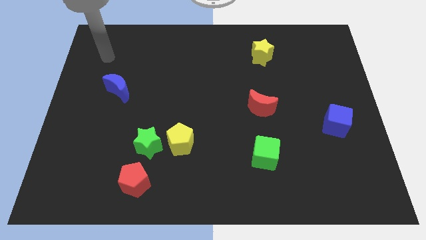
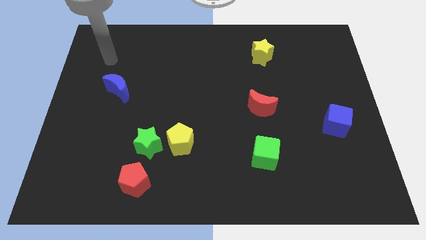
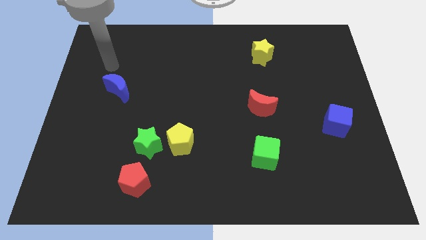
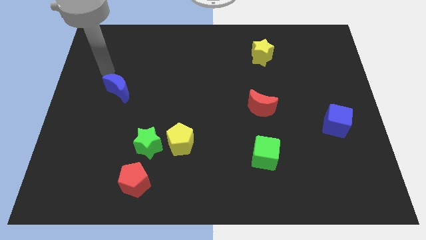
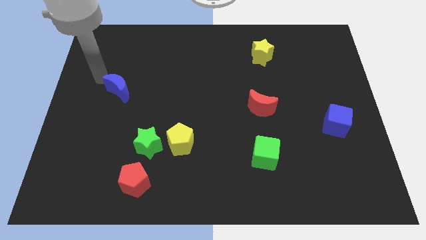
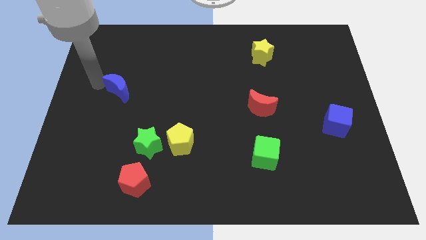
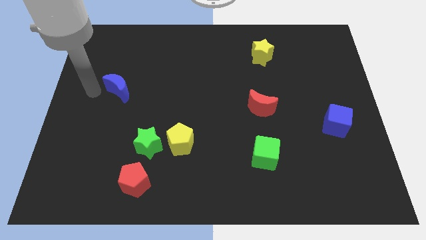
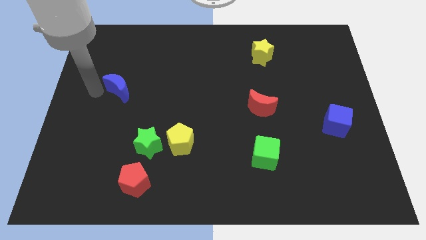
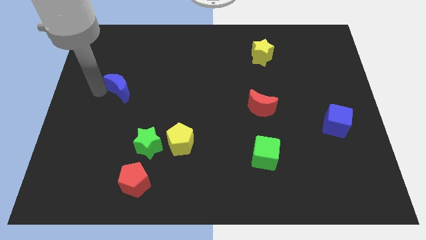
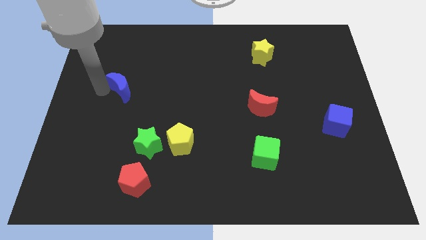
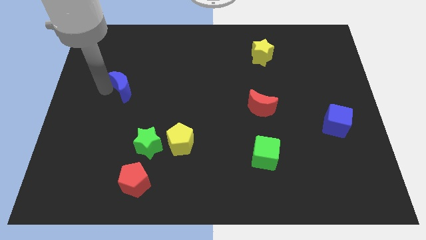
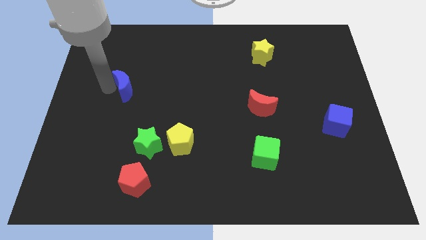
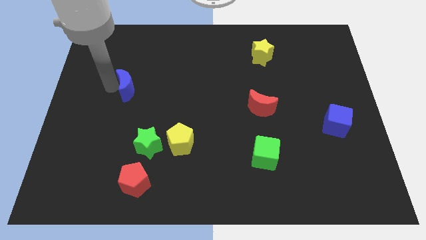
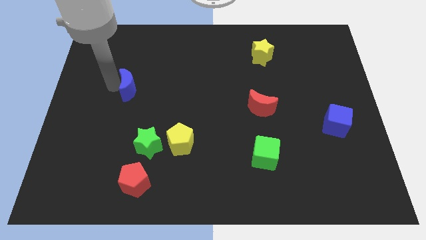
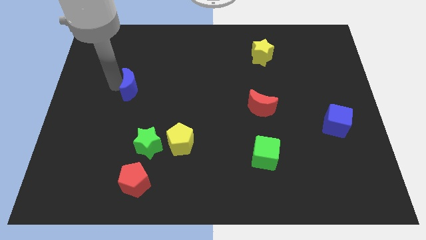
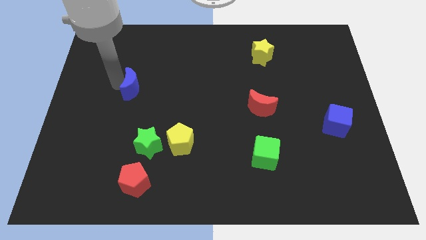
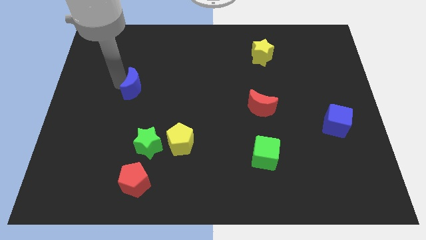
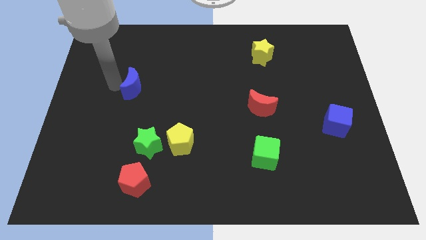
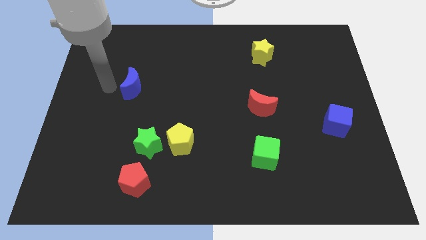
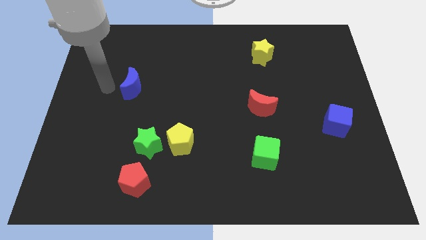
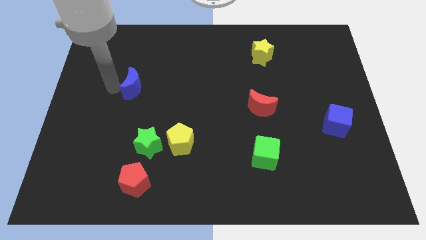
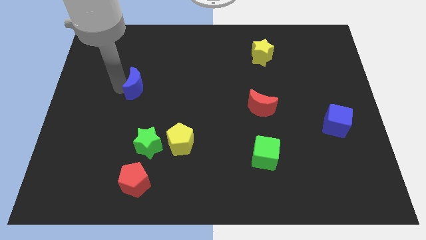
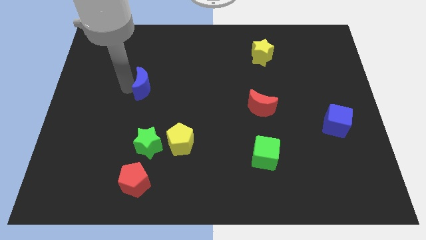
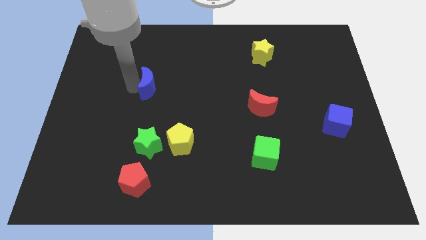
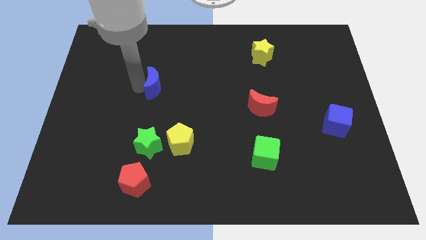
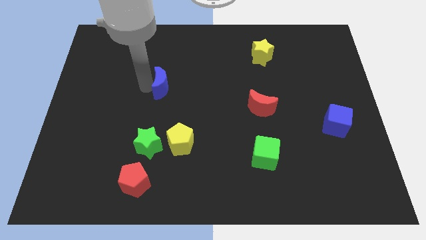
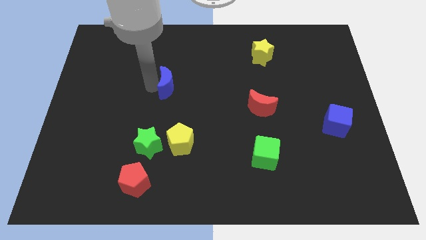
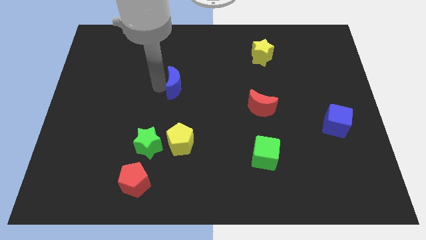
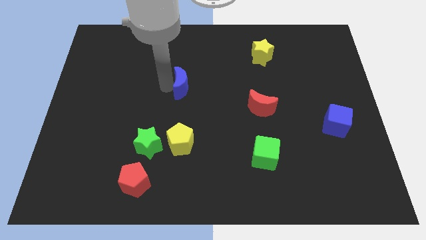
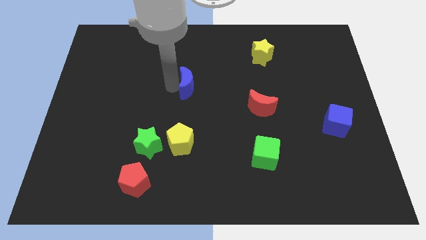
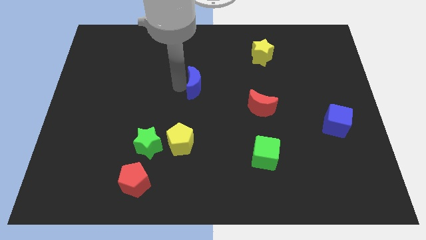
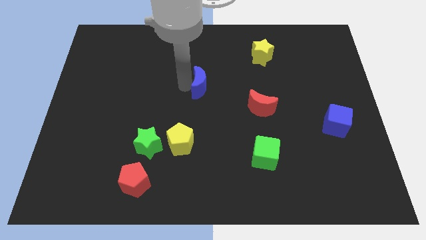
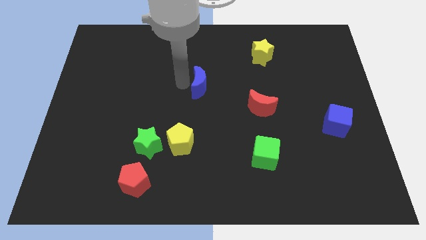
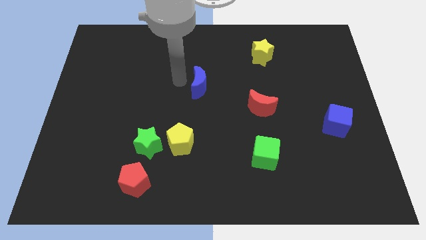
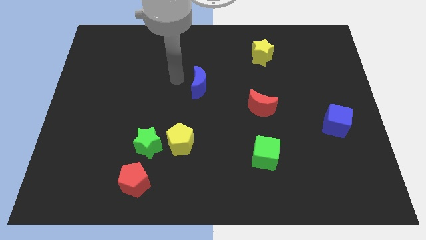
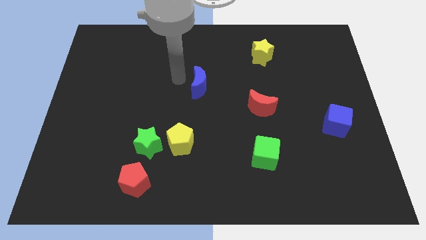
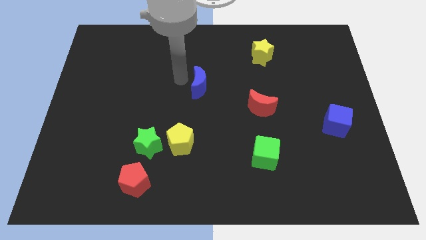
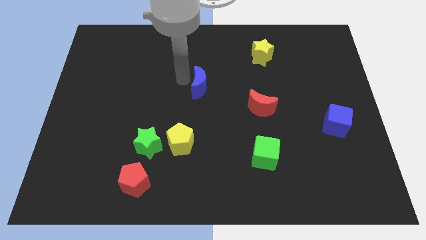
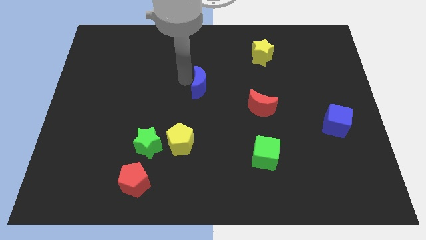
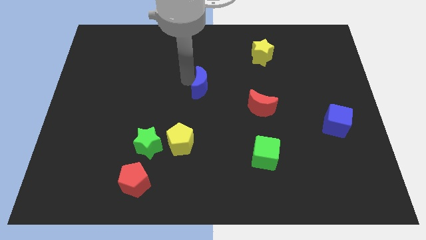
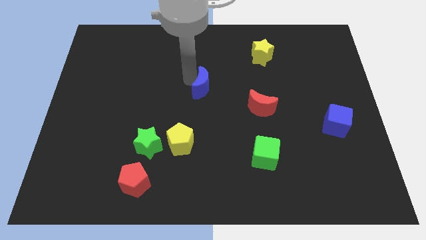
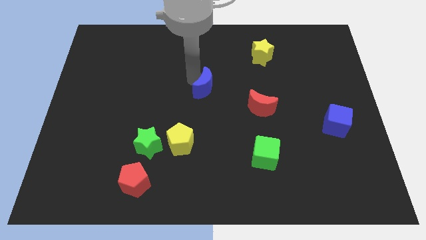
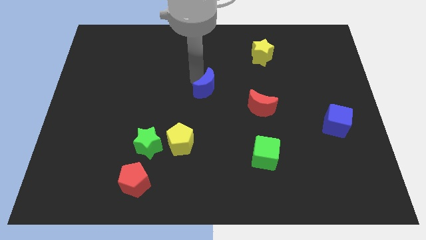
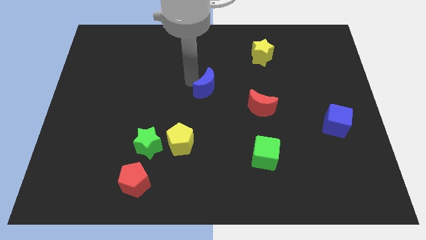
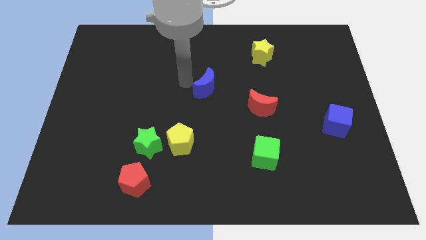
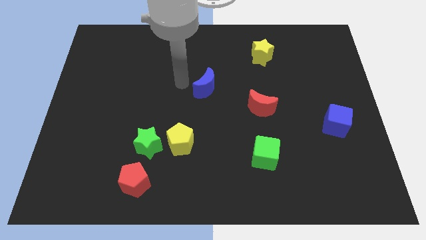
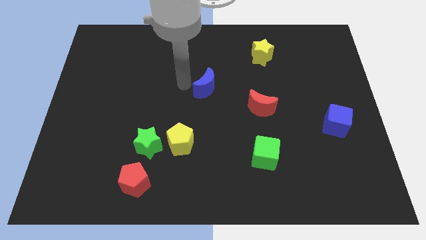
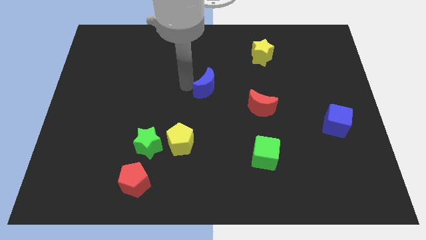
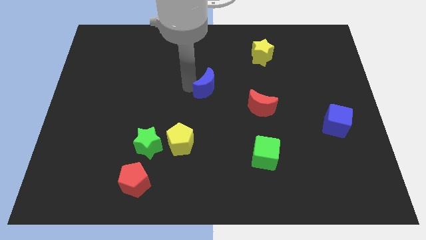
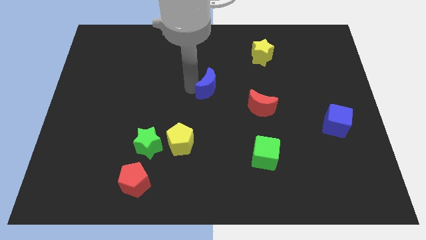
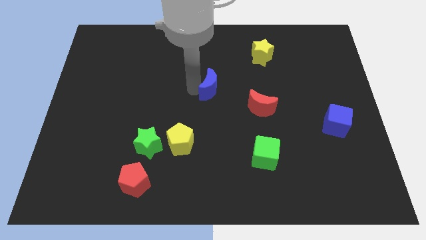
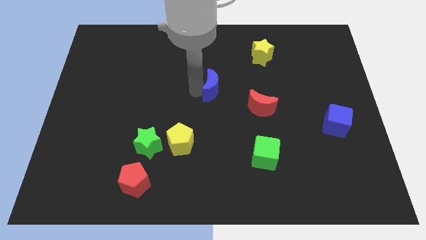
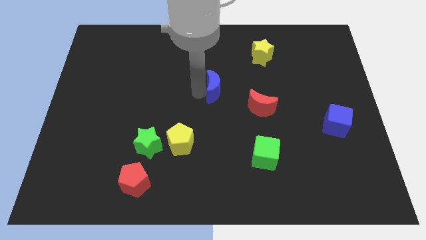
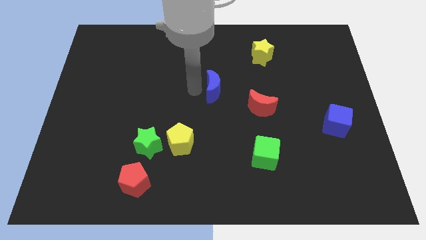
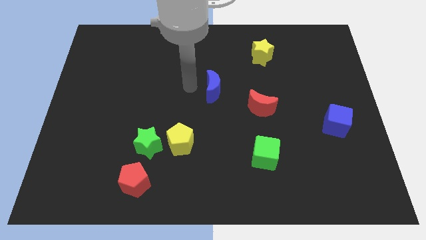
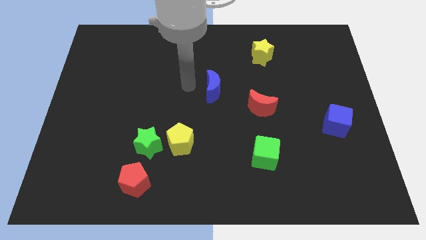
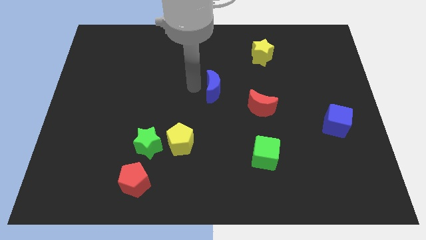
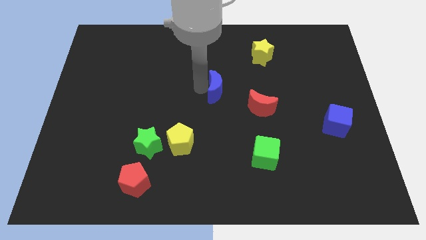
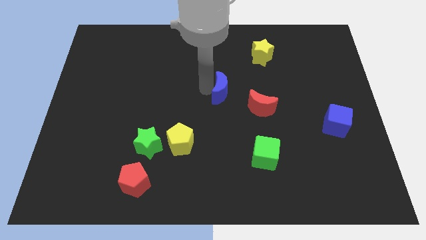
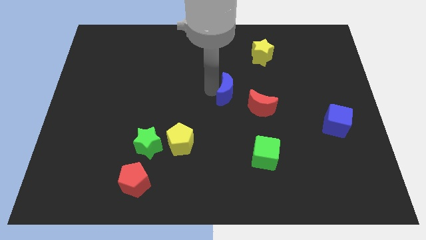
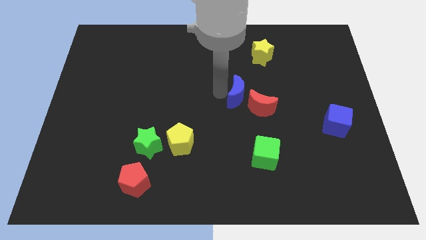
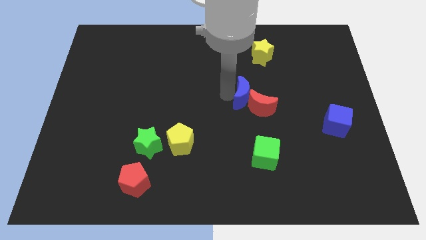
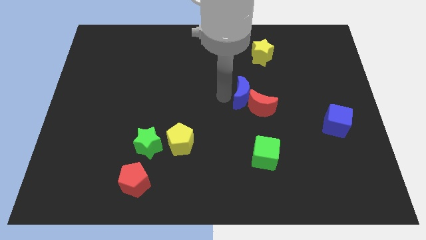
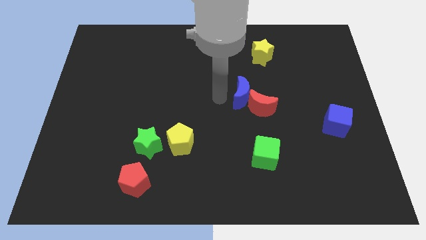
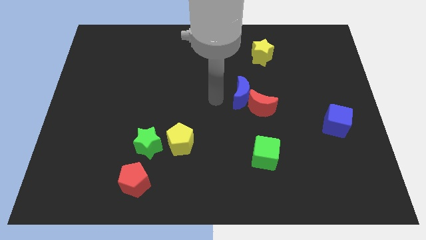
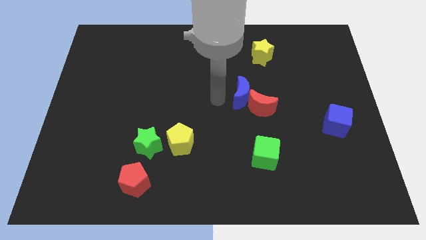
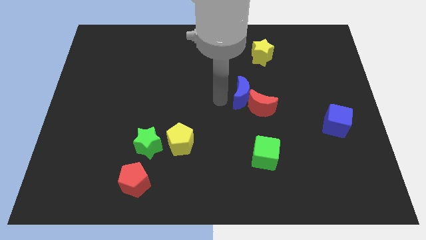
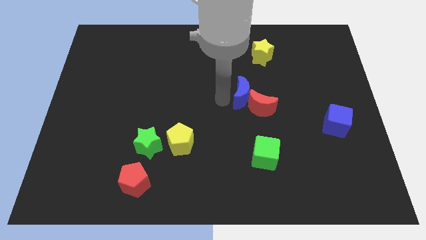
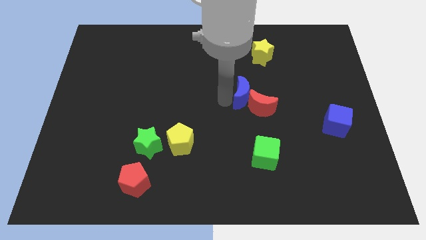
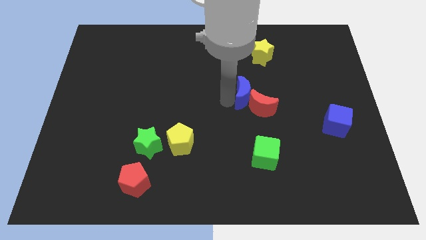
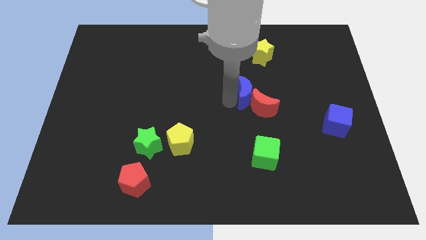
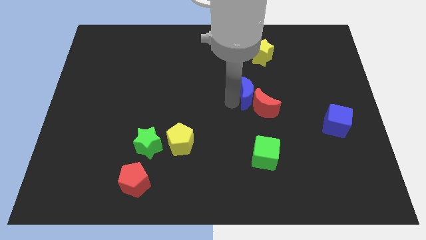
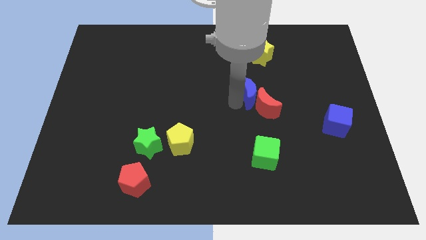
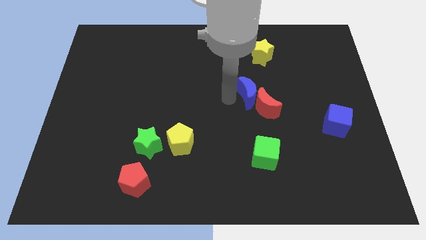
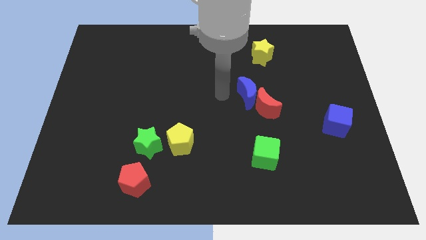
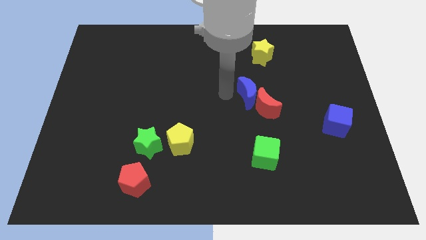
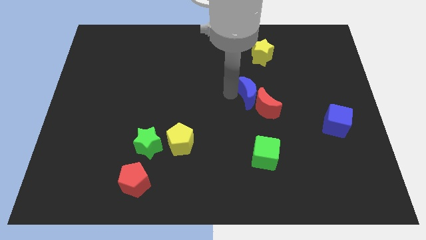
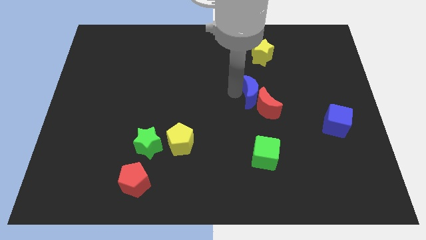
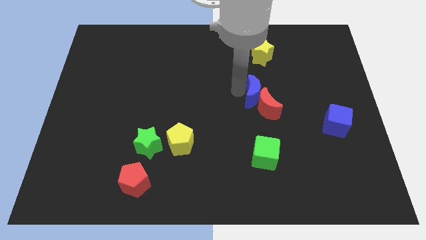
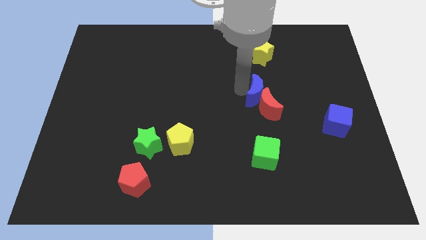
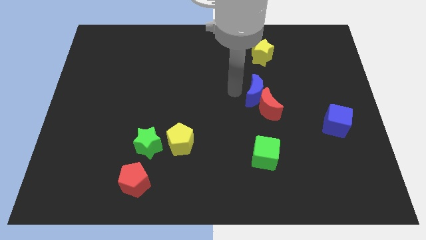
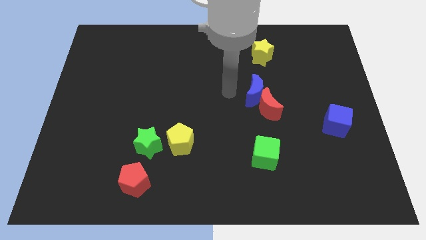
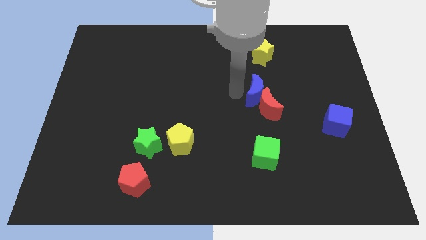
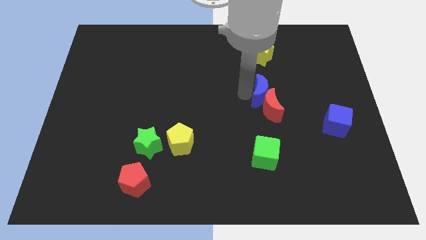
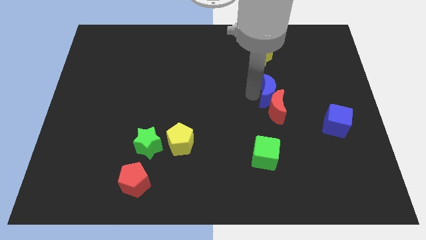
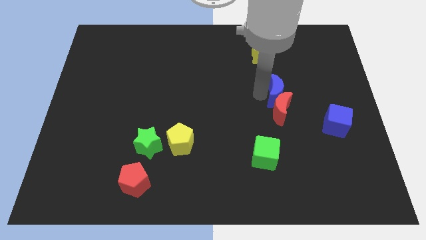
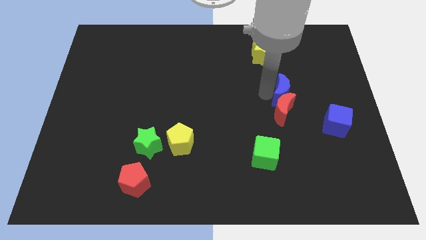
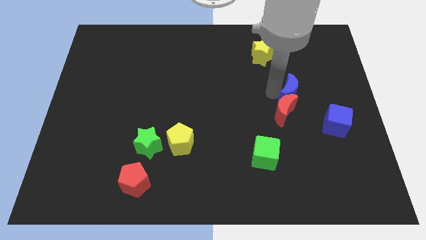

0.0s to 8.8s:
push the blue moon diagonally up and to the left of the blue cube
